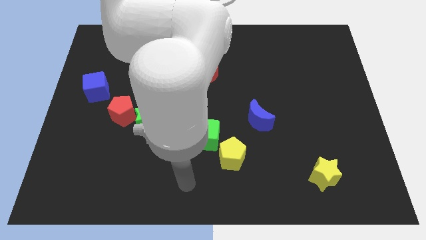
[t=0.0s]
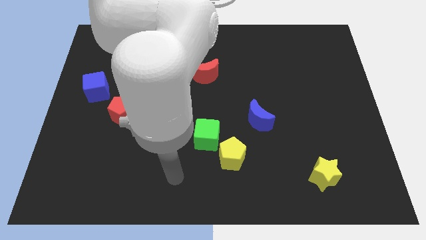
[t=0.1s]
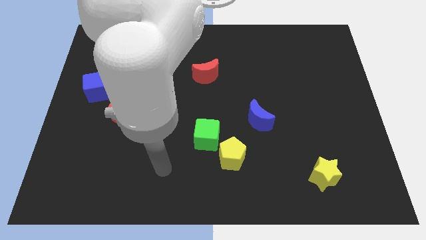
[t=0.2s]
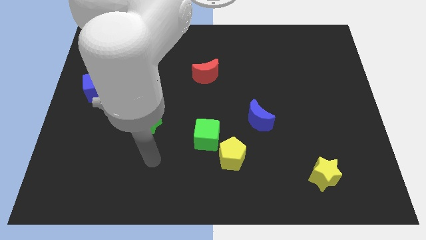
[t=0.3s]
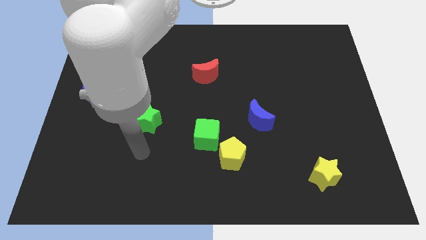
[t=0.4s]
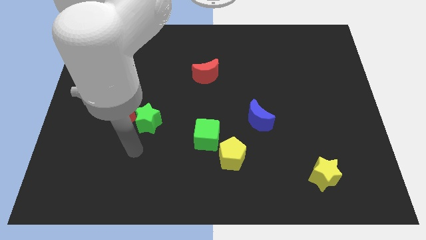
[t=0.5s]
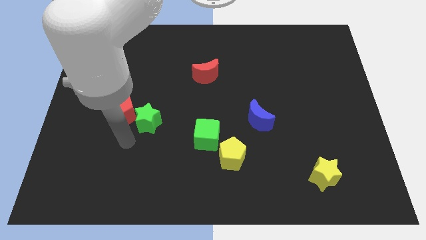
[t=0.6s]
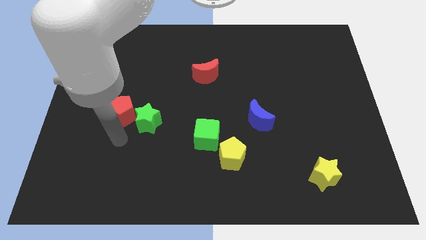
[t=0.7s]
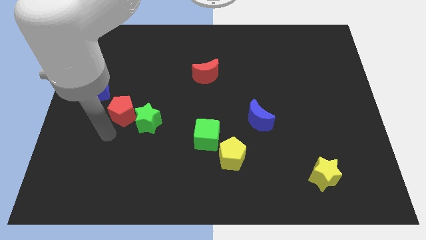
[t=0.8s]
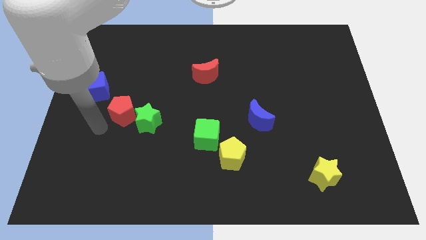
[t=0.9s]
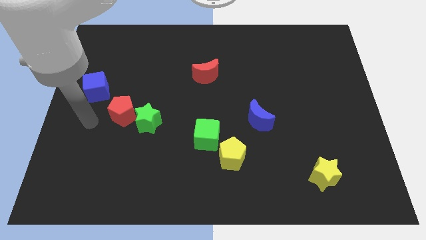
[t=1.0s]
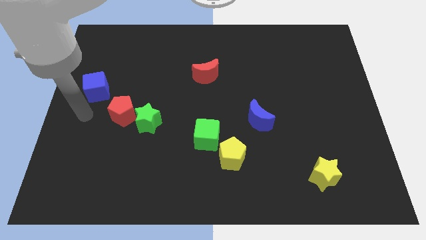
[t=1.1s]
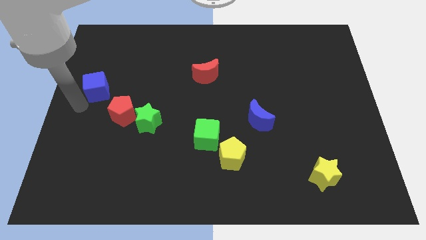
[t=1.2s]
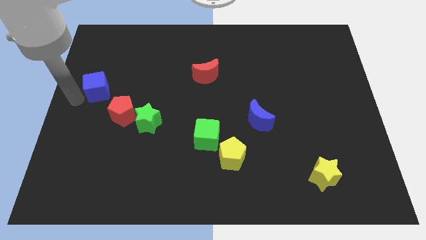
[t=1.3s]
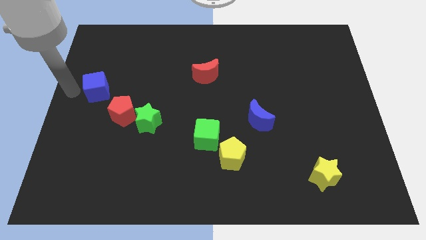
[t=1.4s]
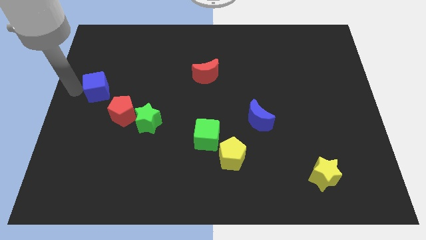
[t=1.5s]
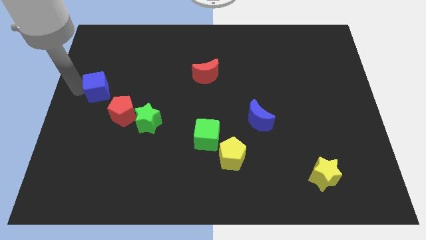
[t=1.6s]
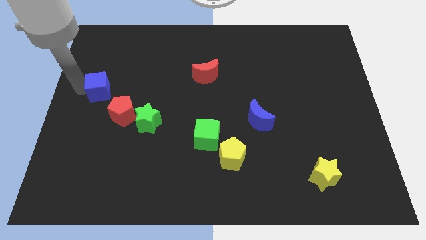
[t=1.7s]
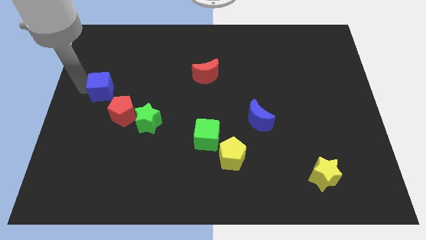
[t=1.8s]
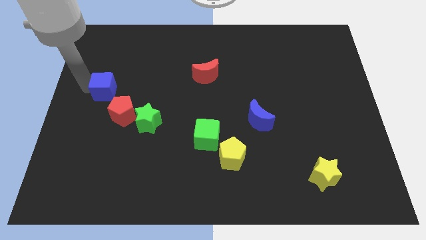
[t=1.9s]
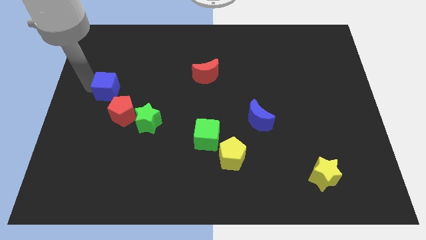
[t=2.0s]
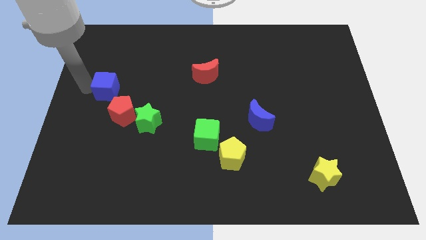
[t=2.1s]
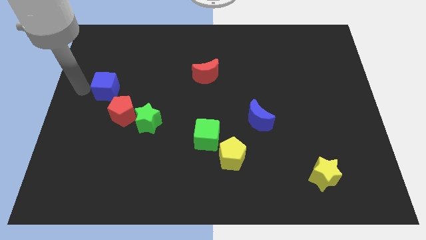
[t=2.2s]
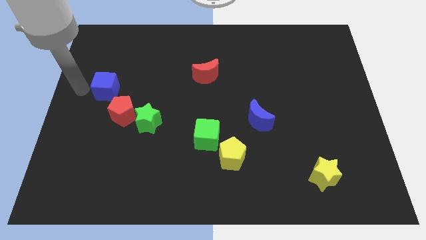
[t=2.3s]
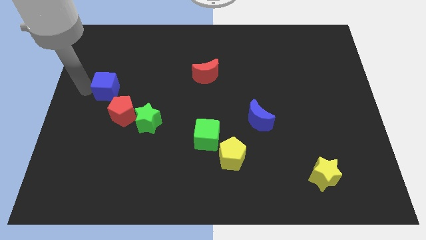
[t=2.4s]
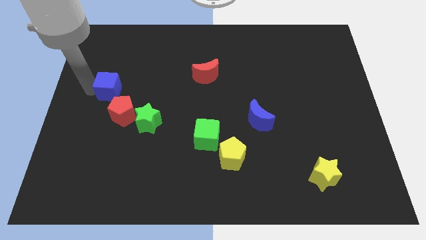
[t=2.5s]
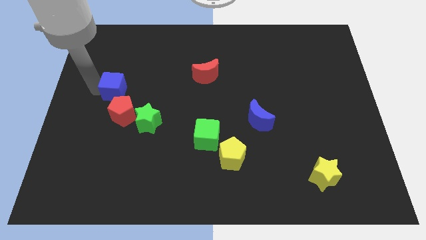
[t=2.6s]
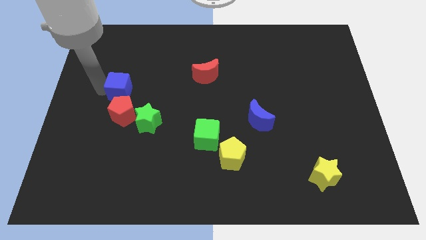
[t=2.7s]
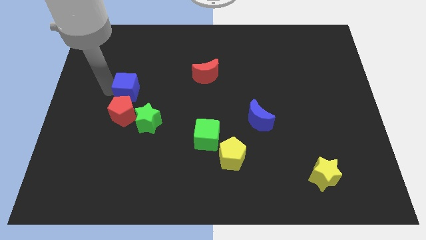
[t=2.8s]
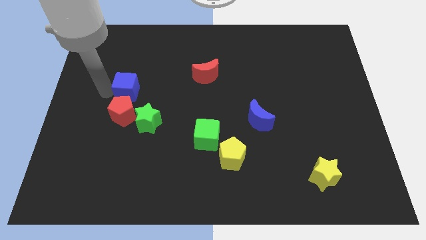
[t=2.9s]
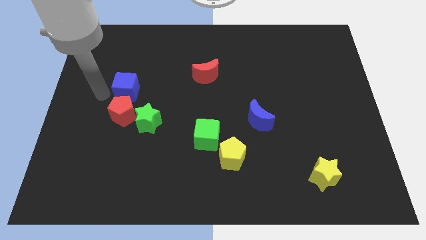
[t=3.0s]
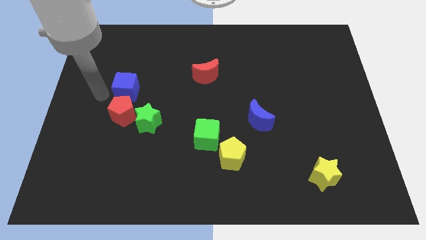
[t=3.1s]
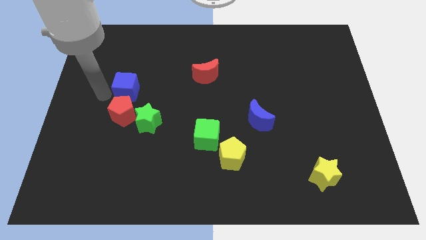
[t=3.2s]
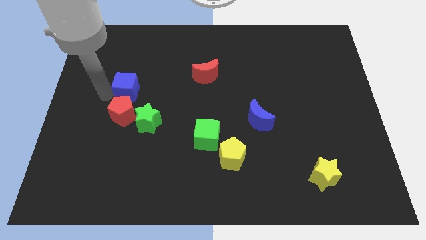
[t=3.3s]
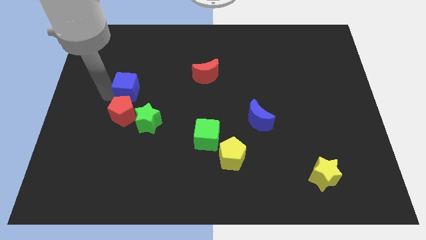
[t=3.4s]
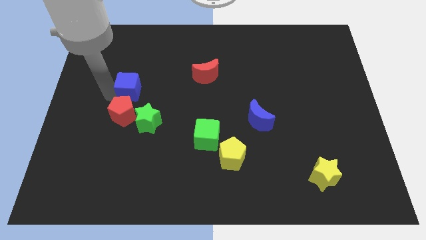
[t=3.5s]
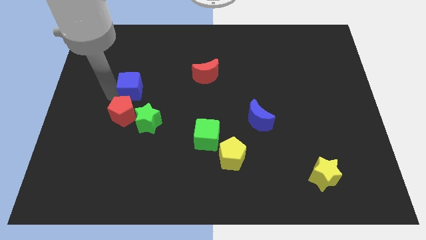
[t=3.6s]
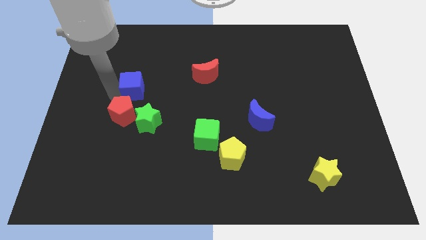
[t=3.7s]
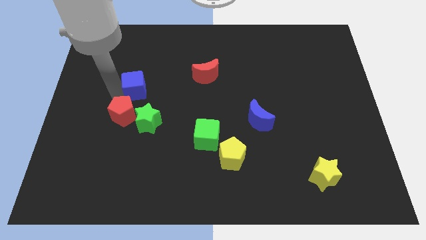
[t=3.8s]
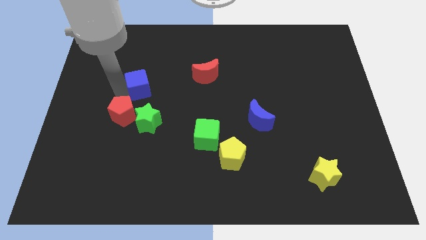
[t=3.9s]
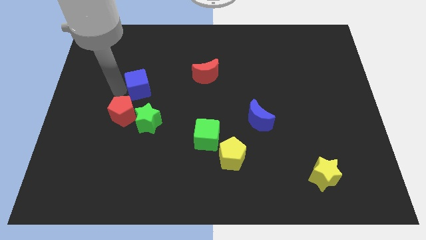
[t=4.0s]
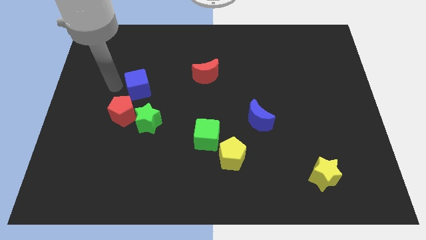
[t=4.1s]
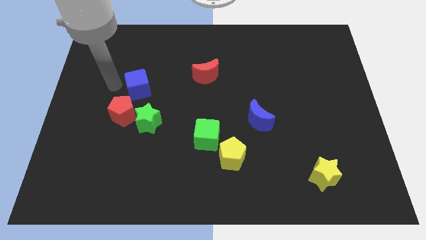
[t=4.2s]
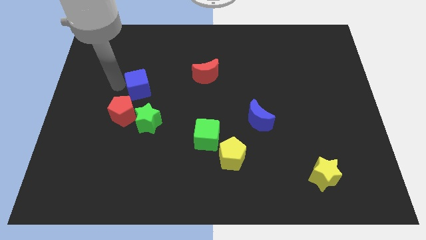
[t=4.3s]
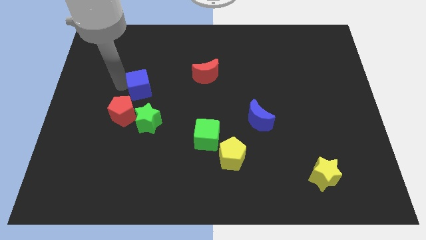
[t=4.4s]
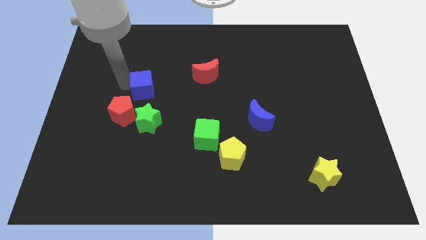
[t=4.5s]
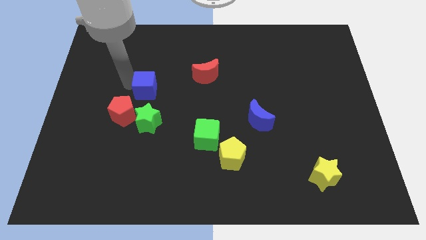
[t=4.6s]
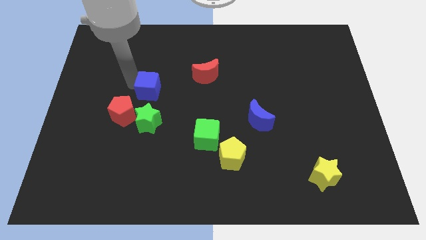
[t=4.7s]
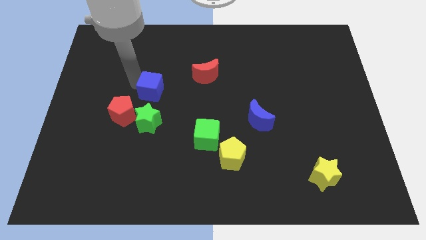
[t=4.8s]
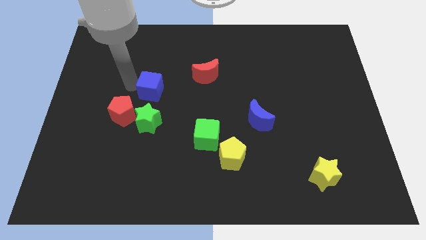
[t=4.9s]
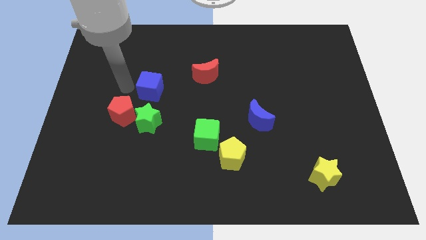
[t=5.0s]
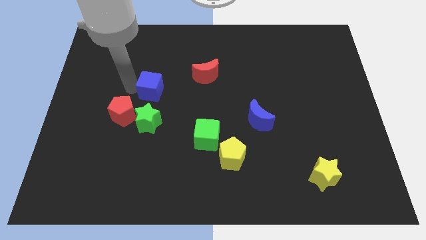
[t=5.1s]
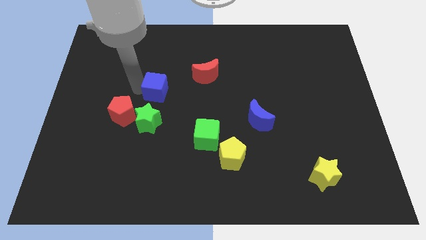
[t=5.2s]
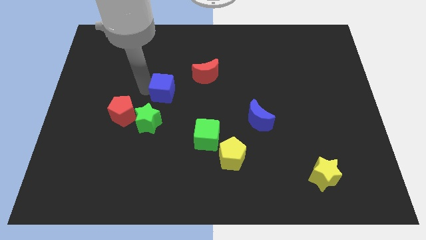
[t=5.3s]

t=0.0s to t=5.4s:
push the blue cube to the center of the board
